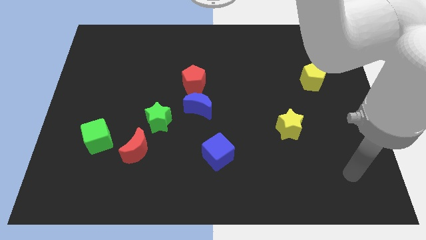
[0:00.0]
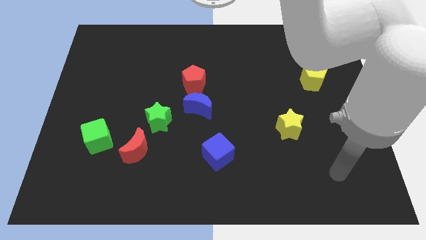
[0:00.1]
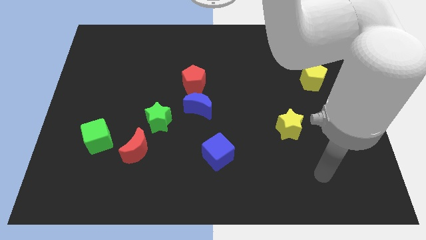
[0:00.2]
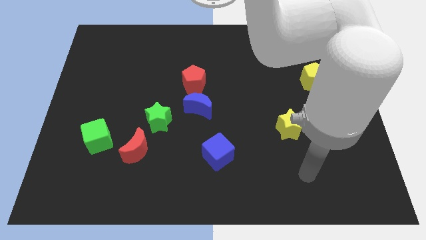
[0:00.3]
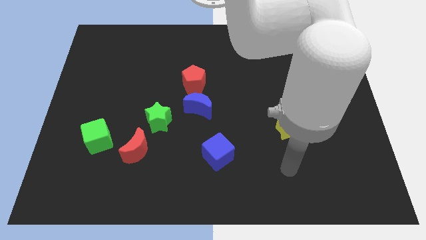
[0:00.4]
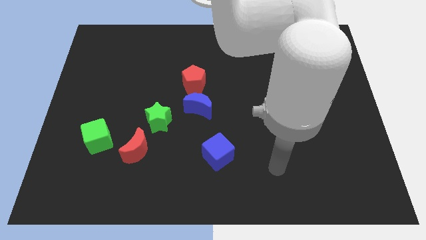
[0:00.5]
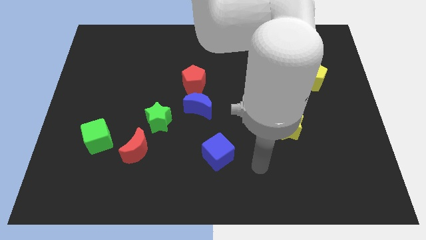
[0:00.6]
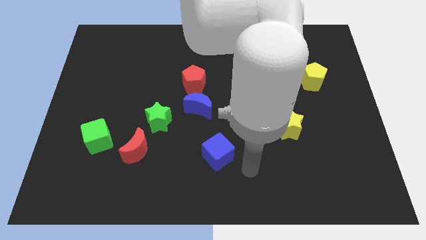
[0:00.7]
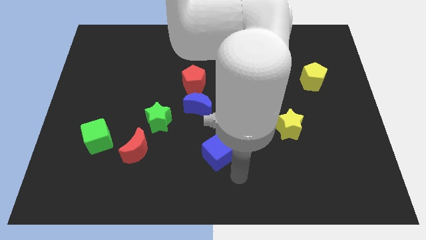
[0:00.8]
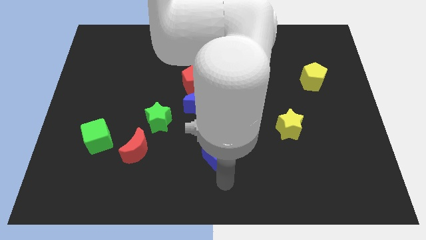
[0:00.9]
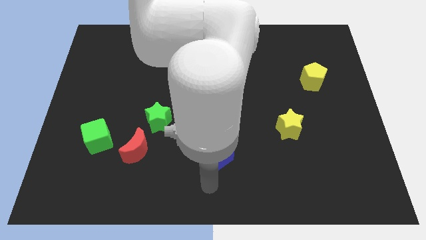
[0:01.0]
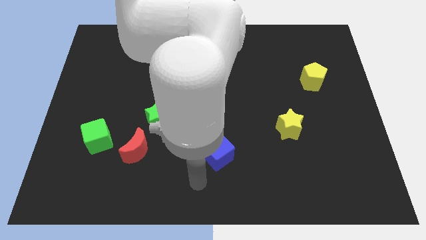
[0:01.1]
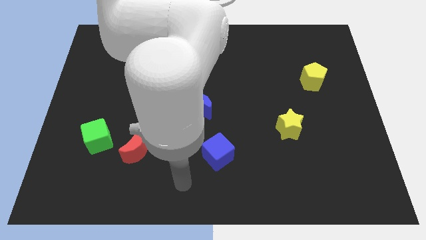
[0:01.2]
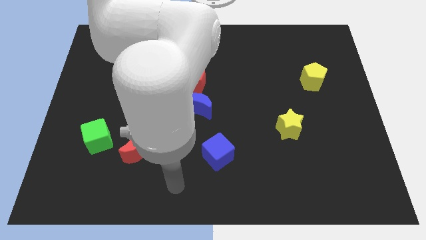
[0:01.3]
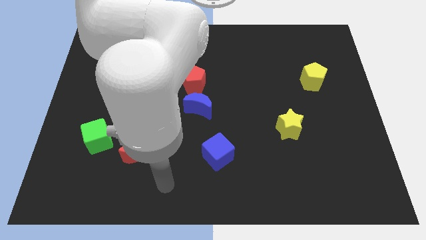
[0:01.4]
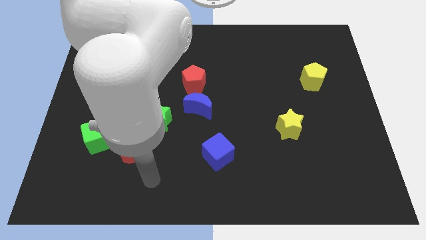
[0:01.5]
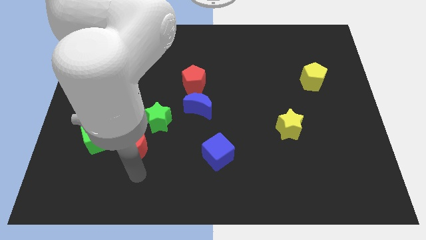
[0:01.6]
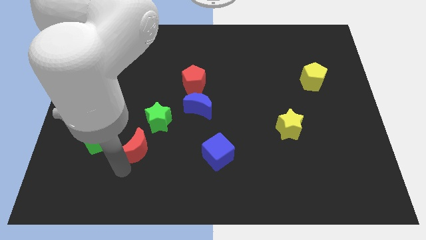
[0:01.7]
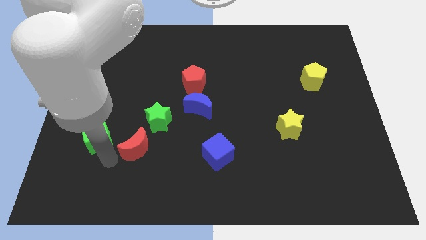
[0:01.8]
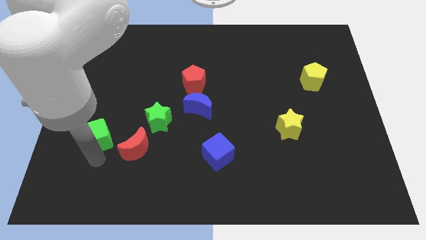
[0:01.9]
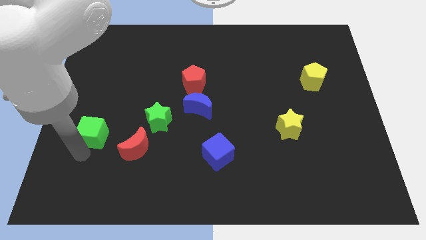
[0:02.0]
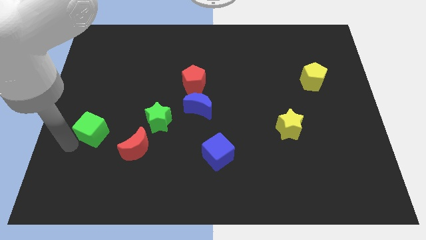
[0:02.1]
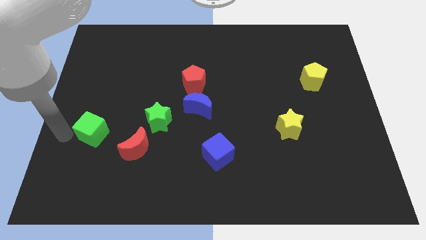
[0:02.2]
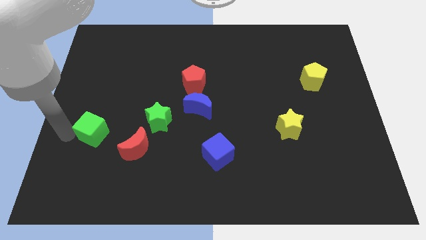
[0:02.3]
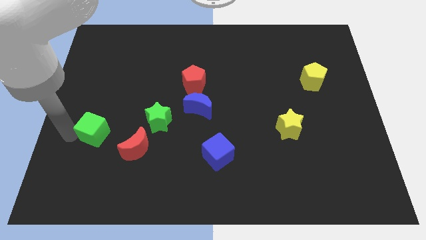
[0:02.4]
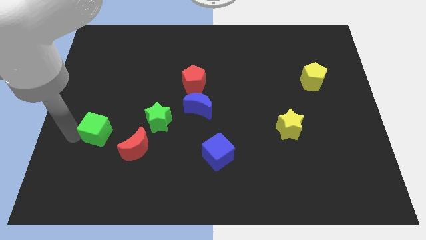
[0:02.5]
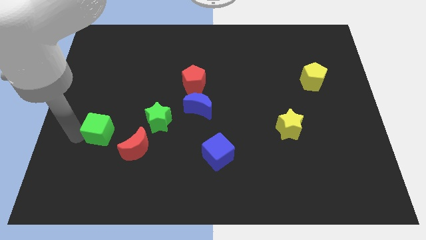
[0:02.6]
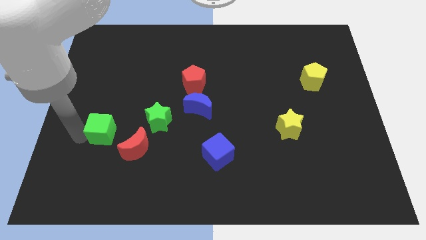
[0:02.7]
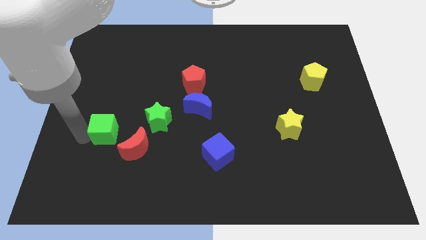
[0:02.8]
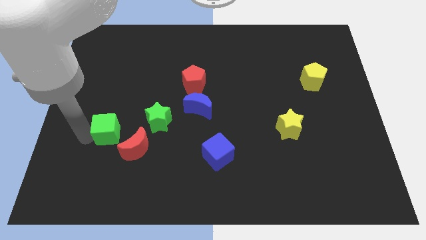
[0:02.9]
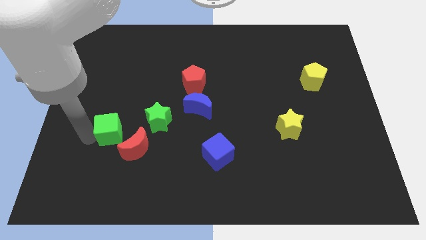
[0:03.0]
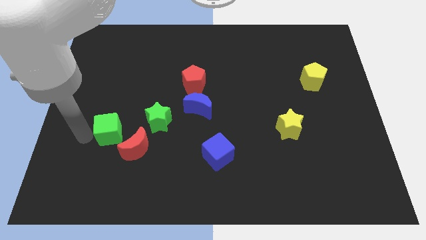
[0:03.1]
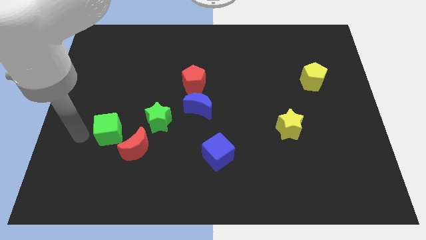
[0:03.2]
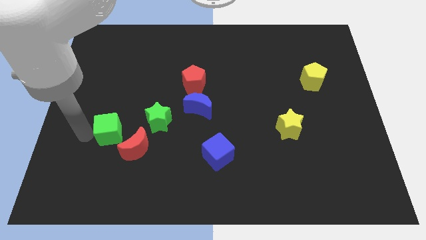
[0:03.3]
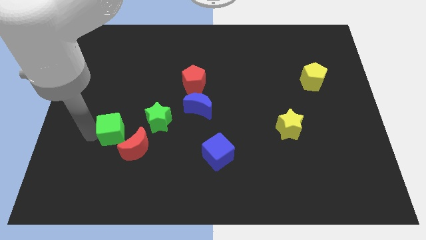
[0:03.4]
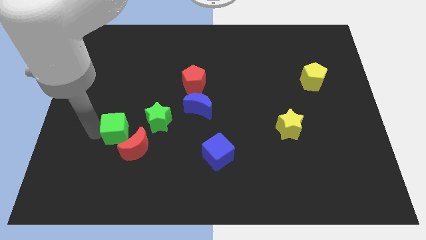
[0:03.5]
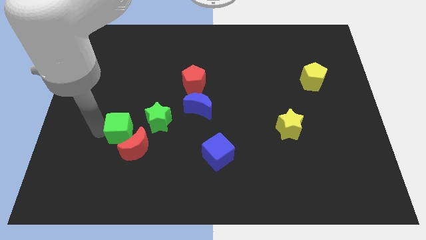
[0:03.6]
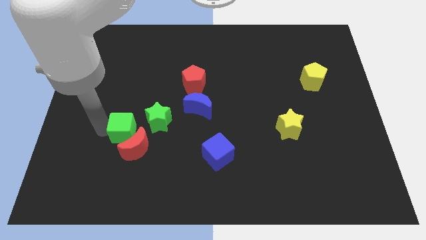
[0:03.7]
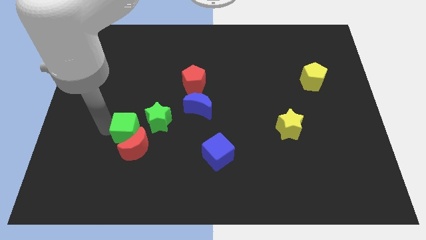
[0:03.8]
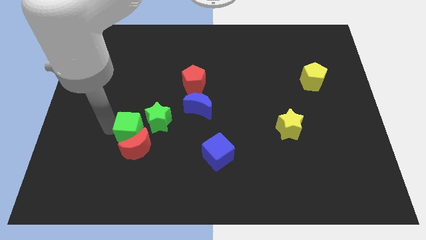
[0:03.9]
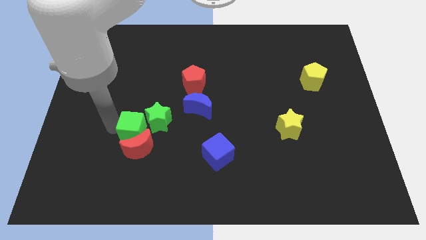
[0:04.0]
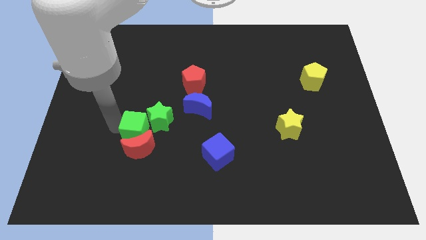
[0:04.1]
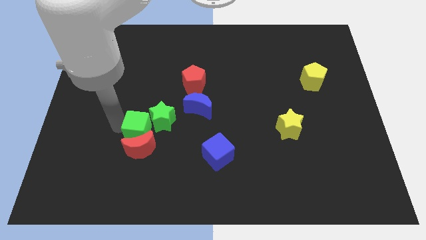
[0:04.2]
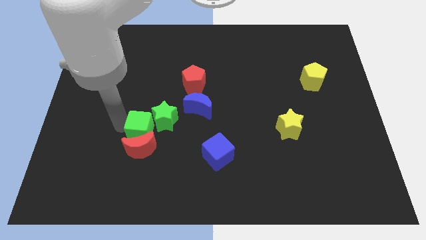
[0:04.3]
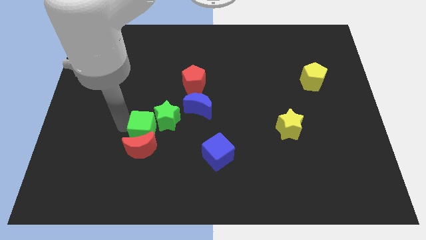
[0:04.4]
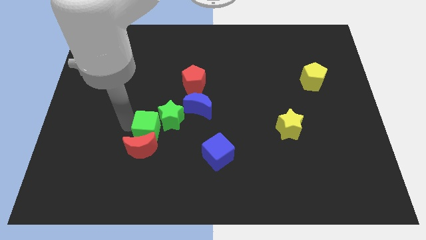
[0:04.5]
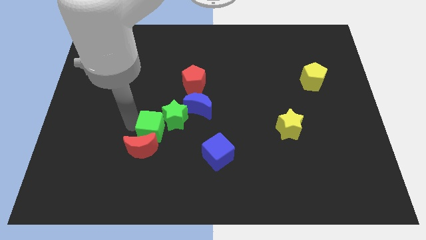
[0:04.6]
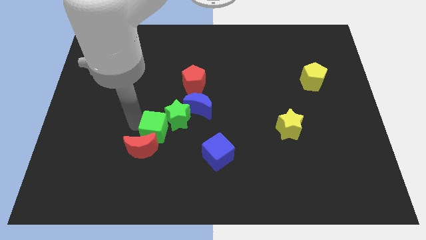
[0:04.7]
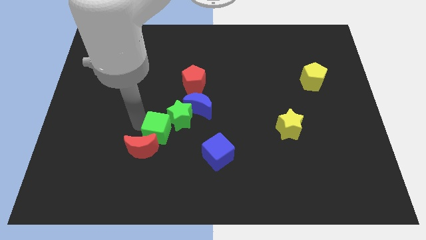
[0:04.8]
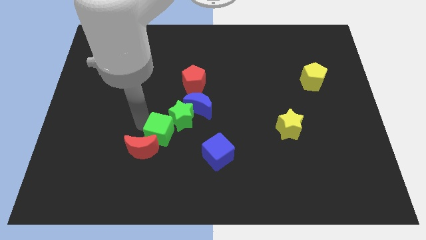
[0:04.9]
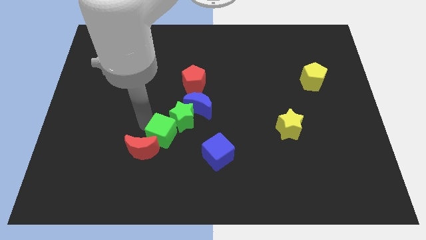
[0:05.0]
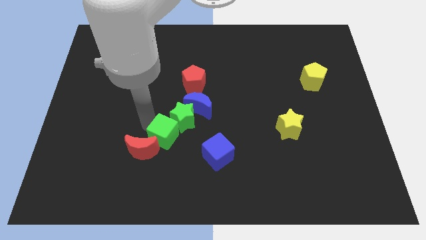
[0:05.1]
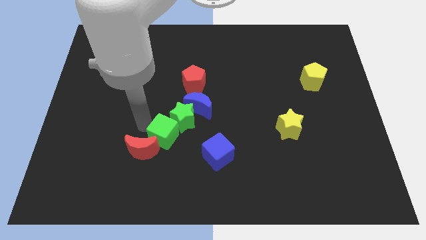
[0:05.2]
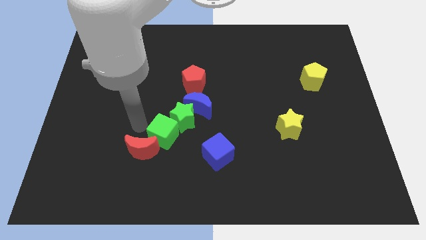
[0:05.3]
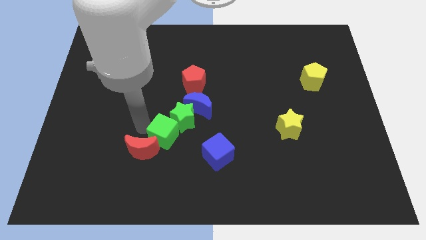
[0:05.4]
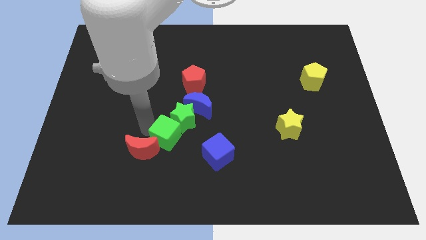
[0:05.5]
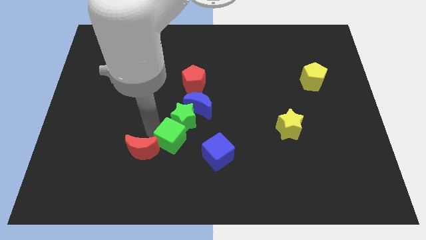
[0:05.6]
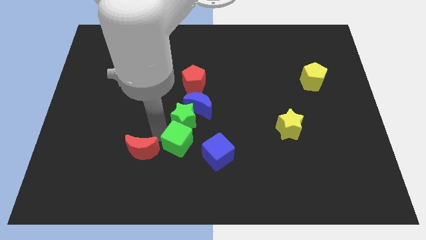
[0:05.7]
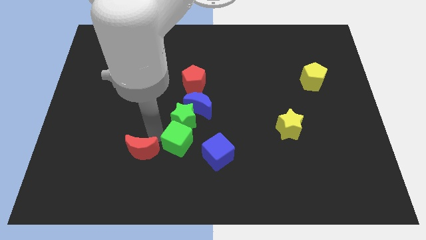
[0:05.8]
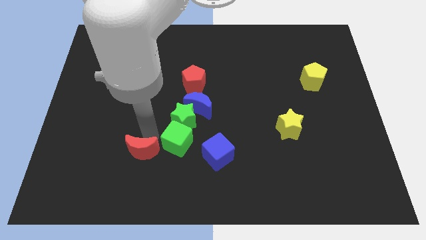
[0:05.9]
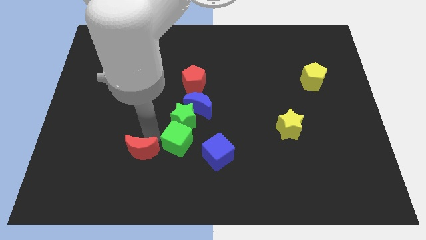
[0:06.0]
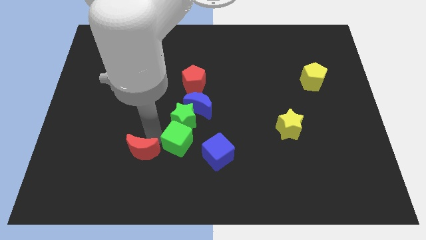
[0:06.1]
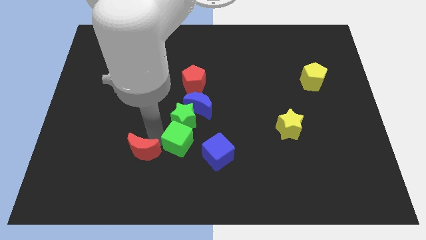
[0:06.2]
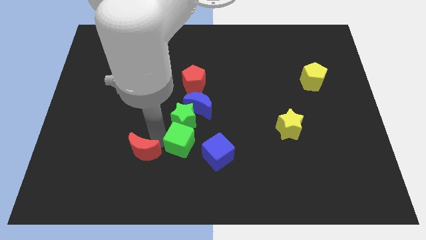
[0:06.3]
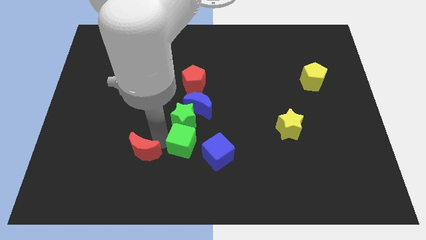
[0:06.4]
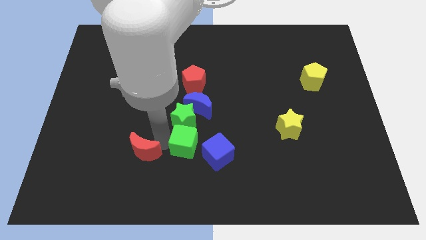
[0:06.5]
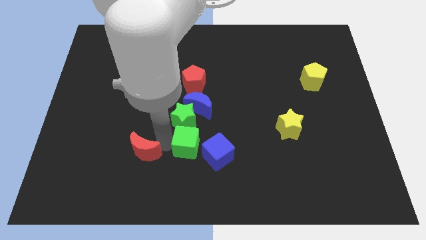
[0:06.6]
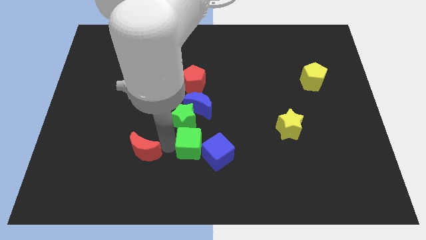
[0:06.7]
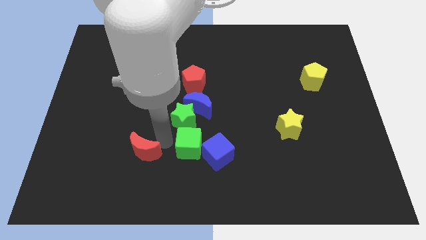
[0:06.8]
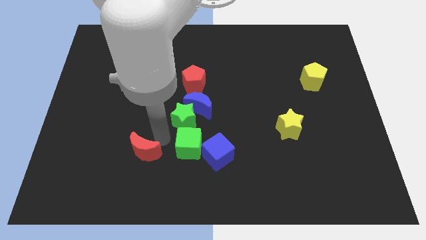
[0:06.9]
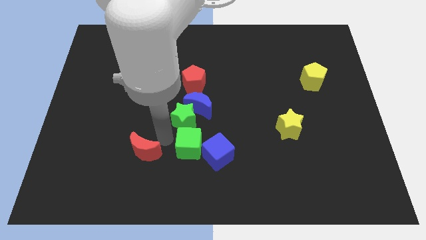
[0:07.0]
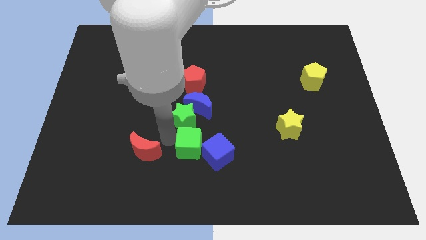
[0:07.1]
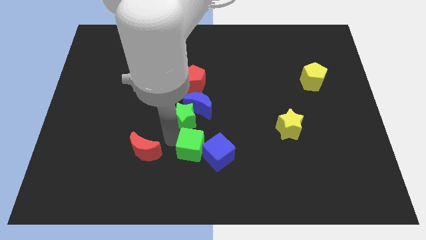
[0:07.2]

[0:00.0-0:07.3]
push the green cube to the blue cube

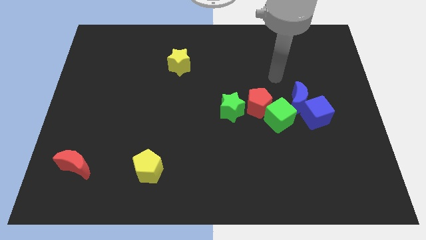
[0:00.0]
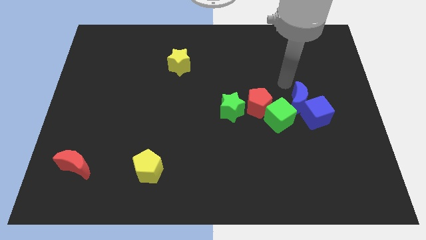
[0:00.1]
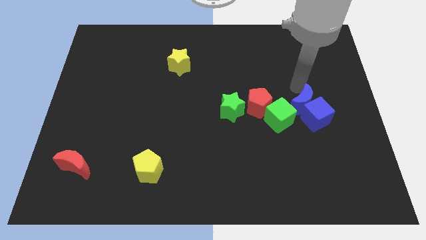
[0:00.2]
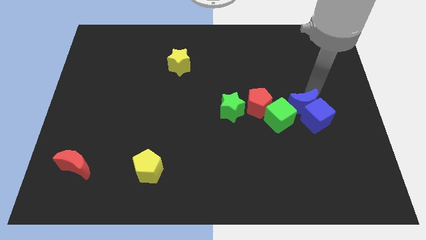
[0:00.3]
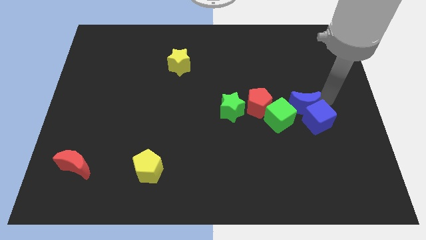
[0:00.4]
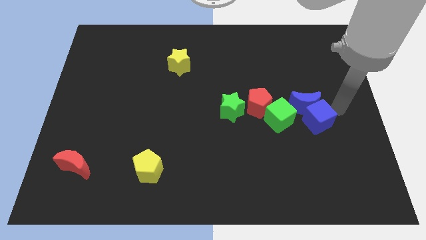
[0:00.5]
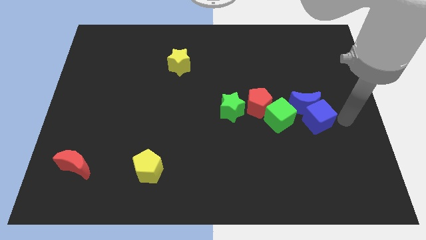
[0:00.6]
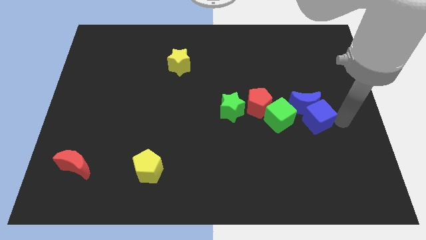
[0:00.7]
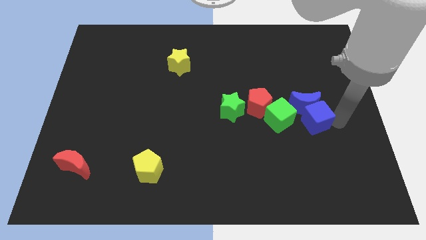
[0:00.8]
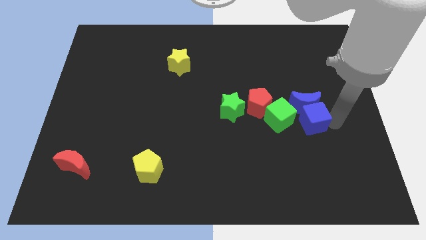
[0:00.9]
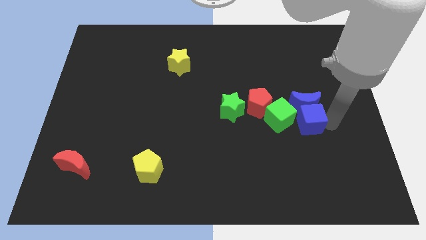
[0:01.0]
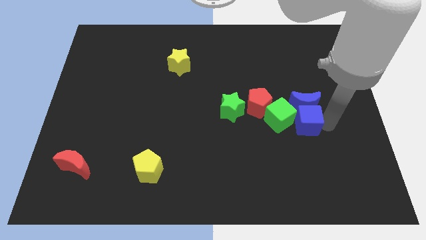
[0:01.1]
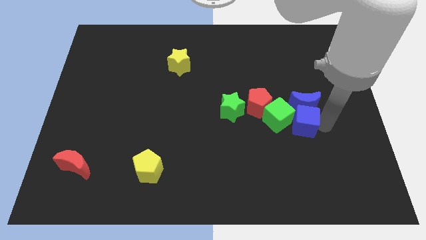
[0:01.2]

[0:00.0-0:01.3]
put the blue cube towards the green cube
